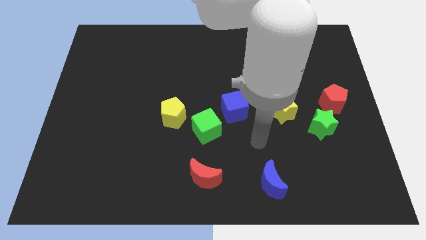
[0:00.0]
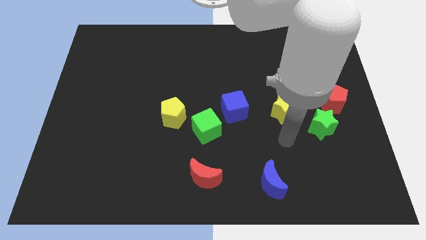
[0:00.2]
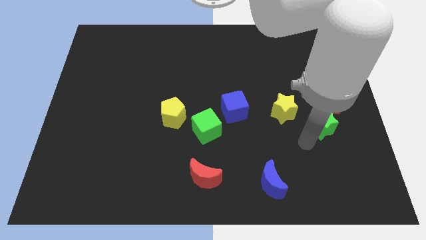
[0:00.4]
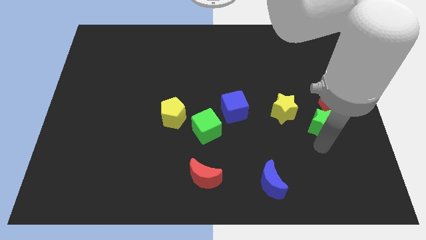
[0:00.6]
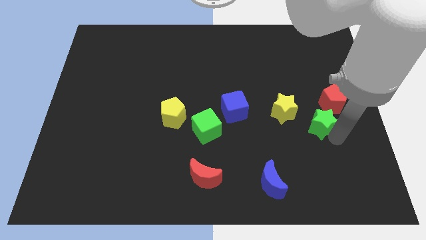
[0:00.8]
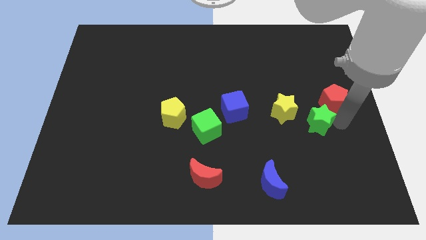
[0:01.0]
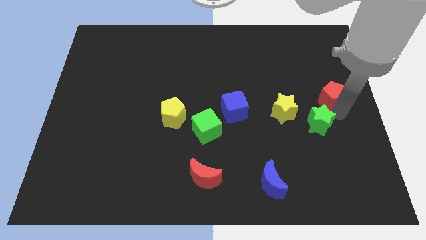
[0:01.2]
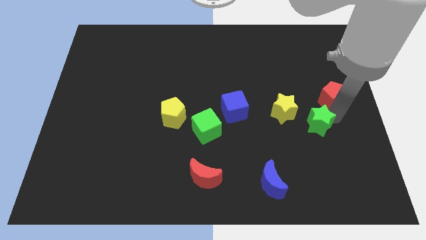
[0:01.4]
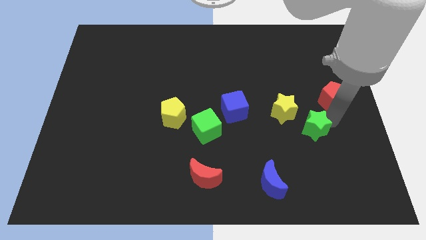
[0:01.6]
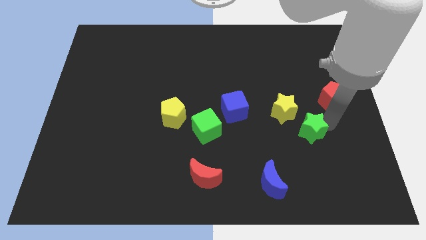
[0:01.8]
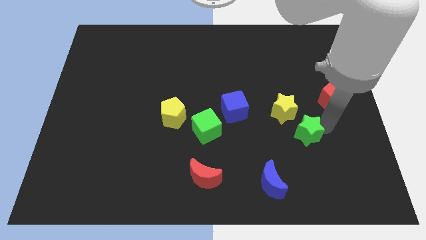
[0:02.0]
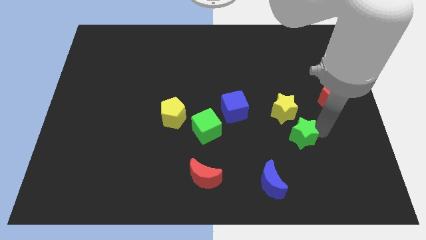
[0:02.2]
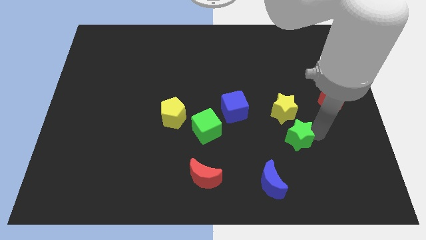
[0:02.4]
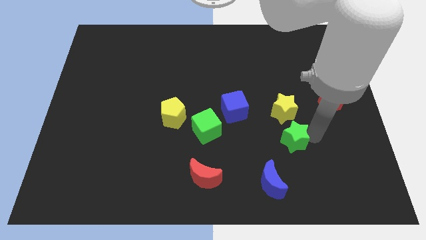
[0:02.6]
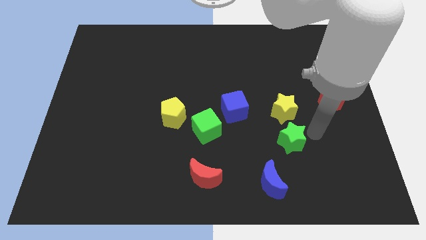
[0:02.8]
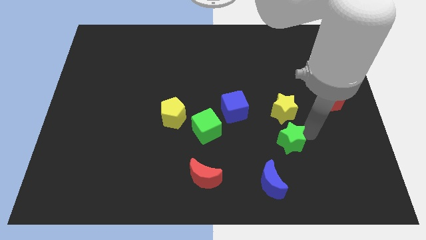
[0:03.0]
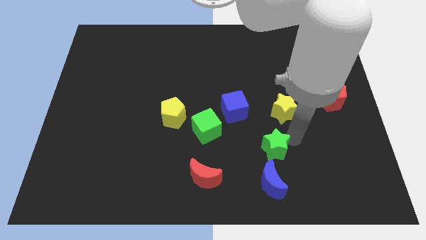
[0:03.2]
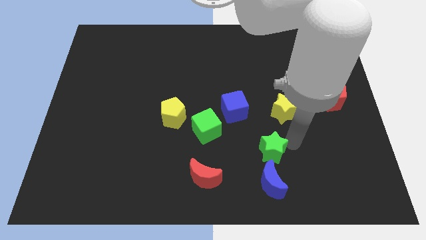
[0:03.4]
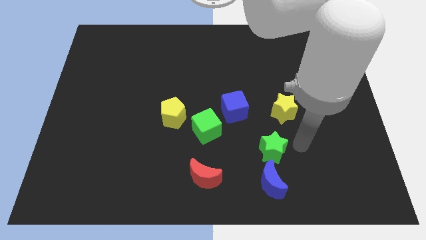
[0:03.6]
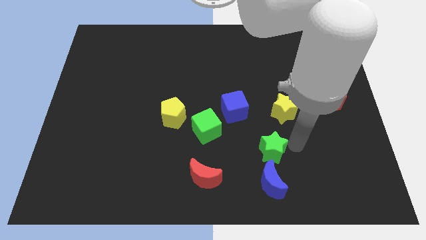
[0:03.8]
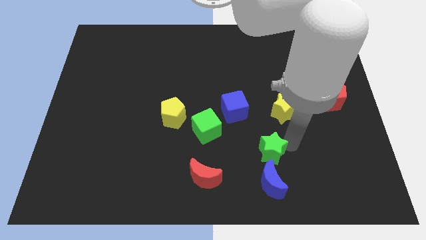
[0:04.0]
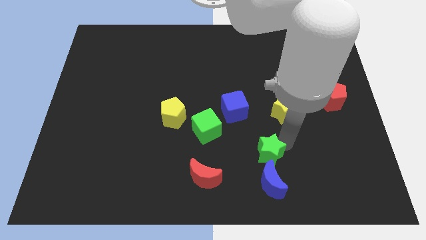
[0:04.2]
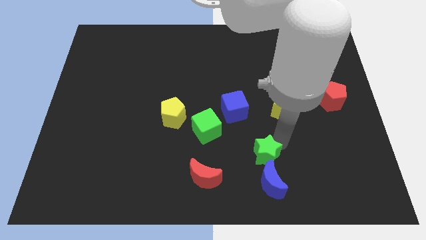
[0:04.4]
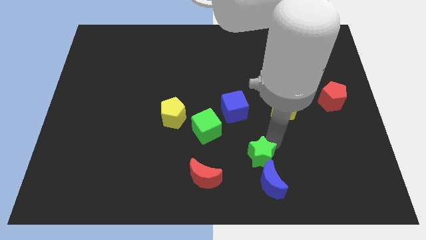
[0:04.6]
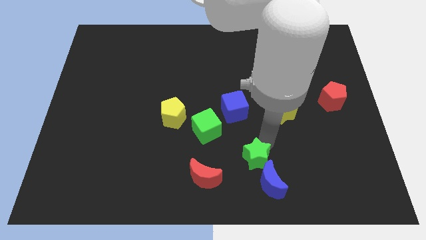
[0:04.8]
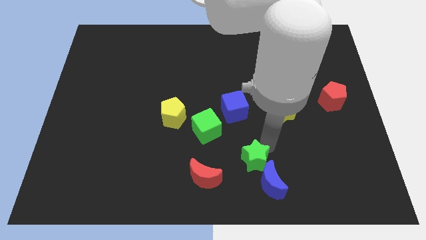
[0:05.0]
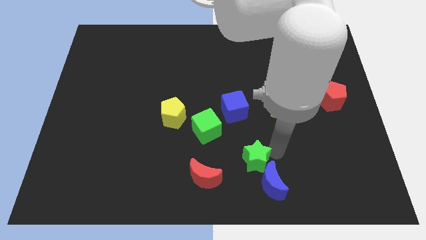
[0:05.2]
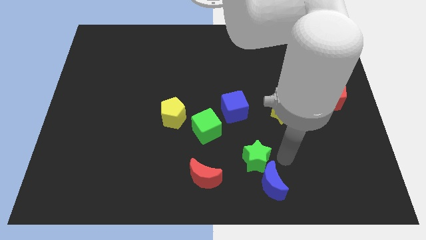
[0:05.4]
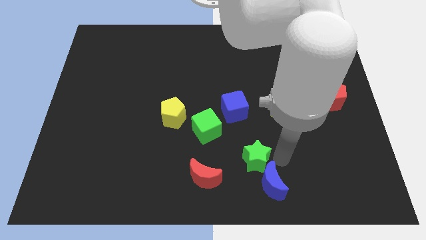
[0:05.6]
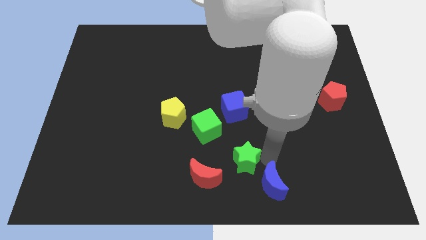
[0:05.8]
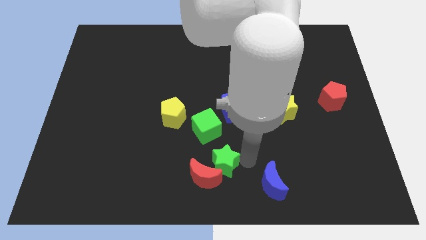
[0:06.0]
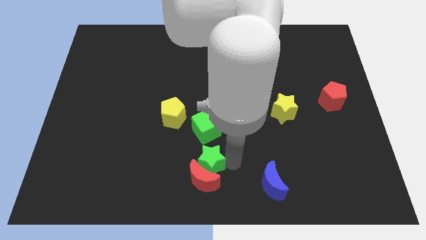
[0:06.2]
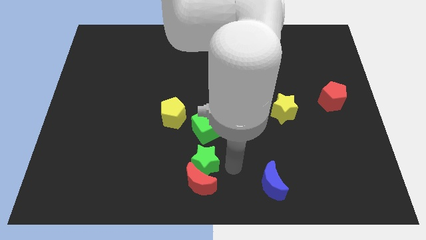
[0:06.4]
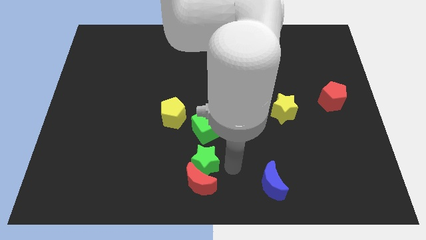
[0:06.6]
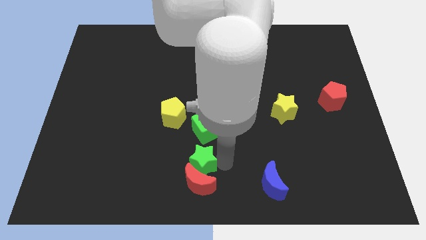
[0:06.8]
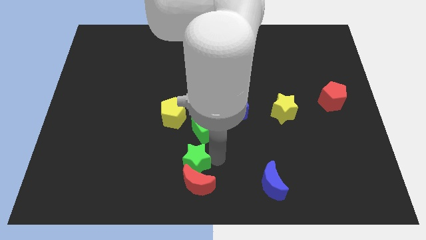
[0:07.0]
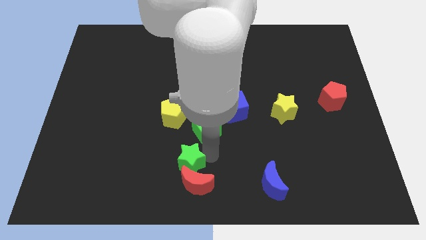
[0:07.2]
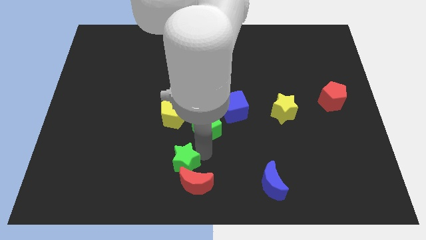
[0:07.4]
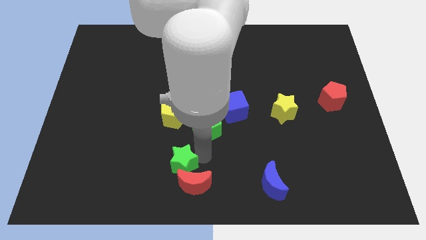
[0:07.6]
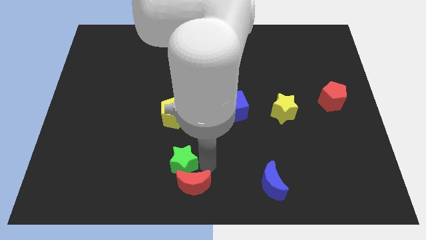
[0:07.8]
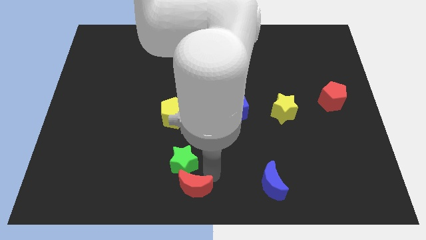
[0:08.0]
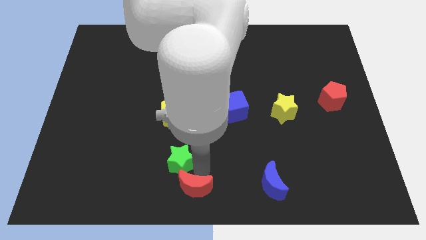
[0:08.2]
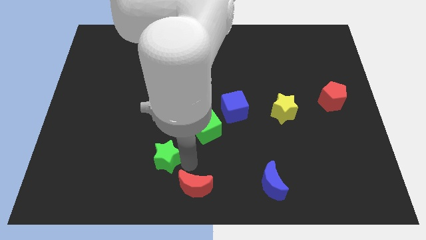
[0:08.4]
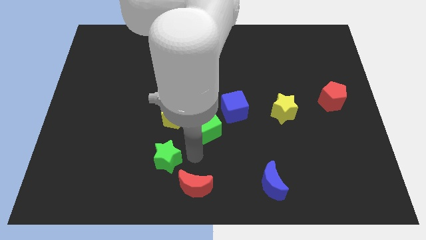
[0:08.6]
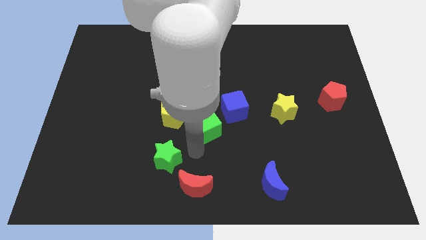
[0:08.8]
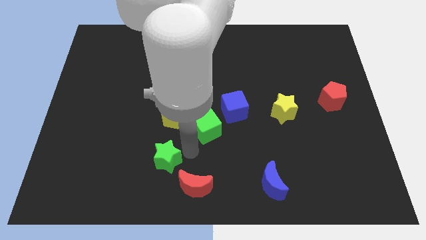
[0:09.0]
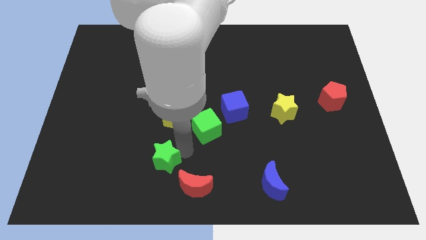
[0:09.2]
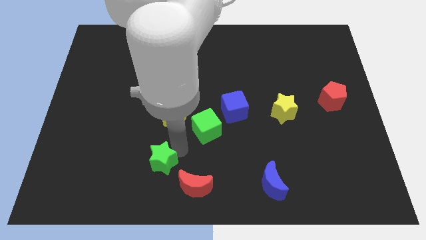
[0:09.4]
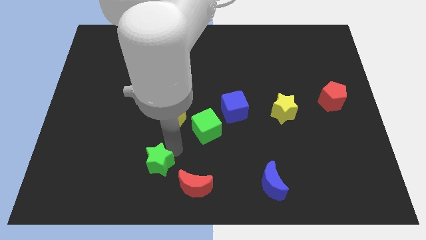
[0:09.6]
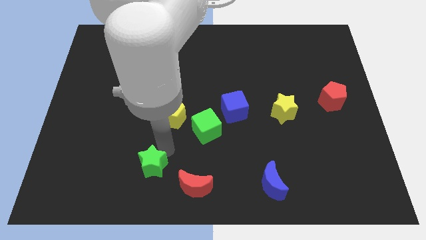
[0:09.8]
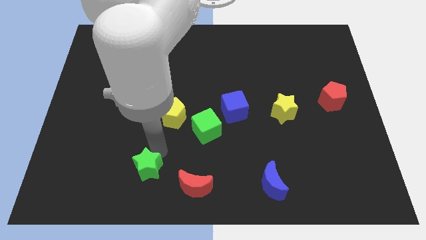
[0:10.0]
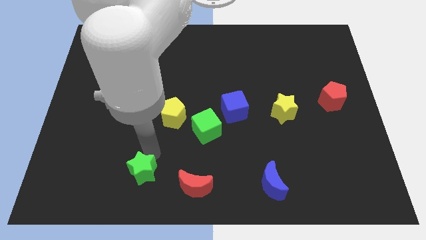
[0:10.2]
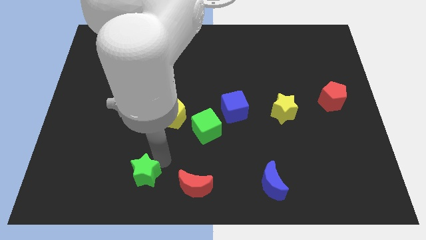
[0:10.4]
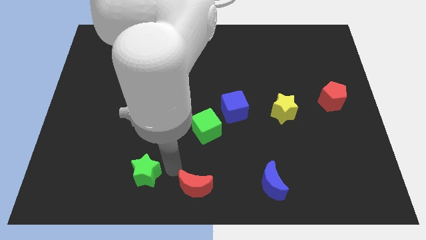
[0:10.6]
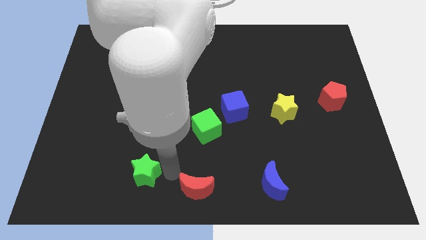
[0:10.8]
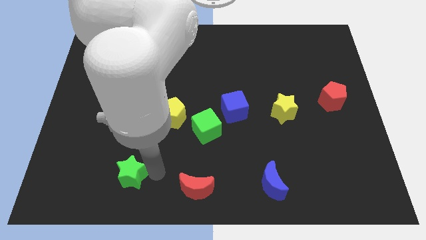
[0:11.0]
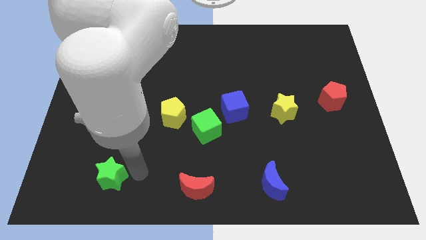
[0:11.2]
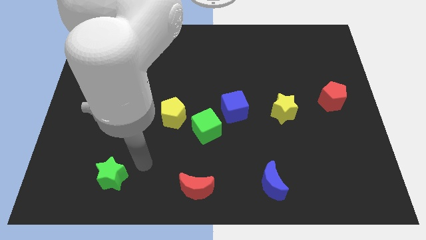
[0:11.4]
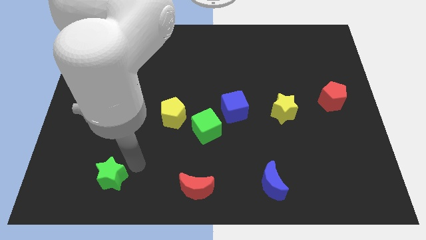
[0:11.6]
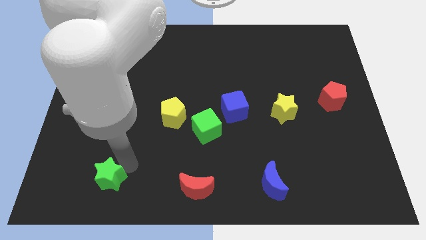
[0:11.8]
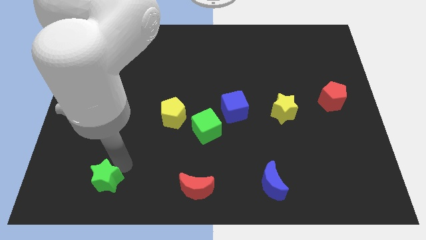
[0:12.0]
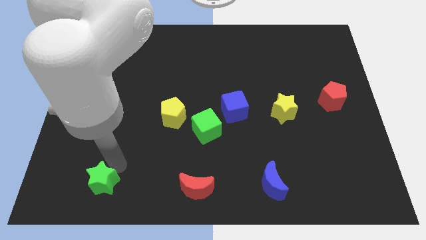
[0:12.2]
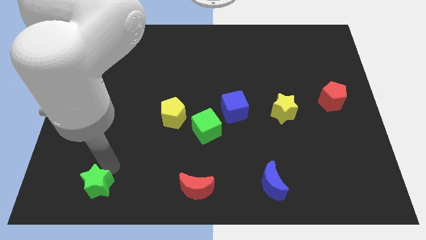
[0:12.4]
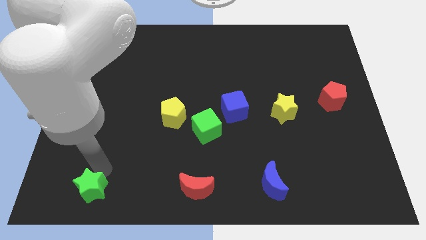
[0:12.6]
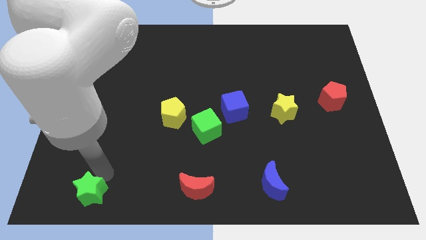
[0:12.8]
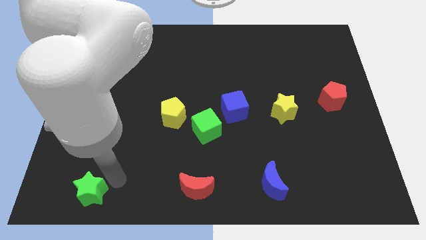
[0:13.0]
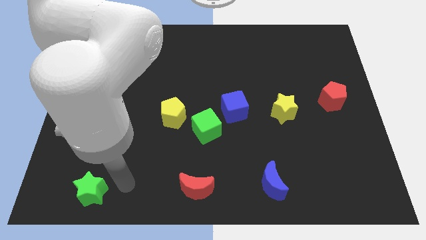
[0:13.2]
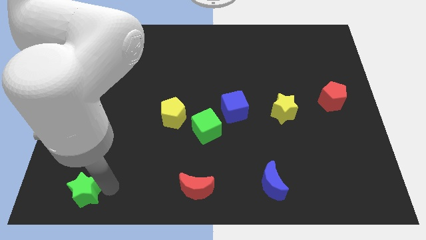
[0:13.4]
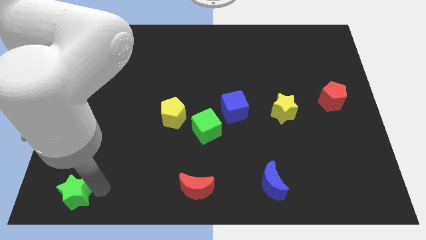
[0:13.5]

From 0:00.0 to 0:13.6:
slide the green star to the lower left corner
